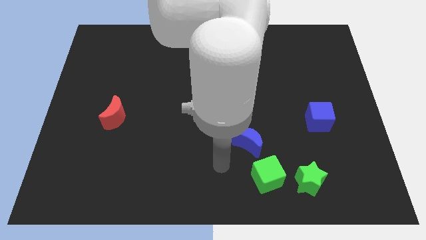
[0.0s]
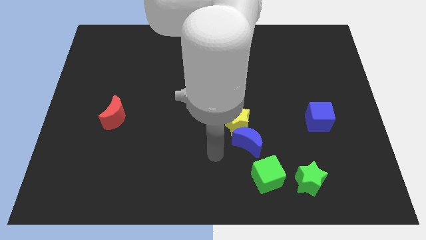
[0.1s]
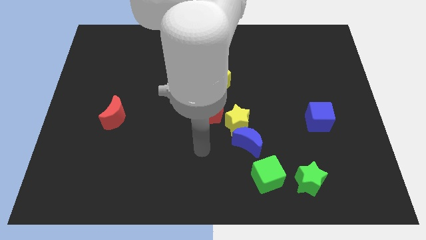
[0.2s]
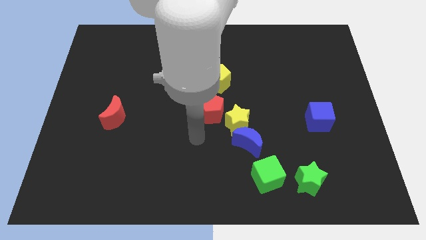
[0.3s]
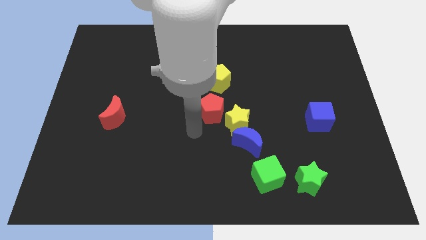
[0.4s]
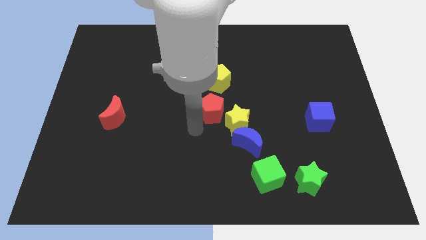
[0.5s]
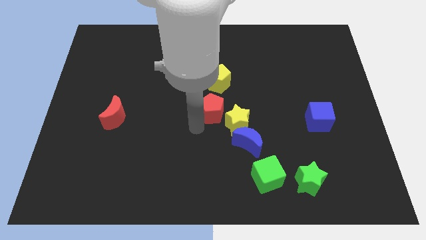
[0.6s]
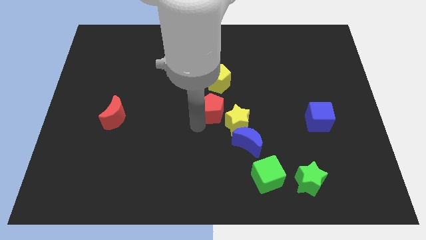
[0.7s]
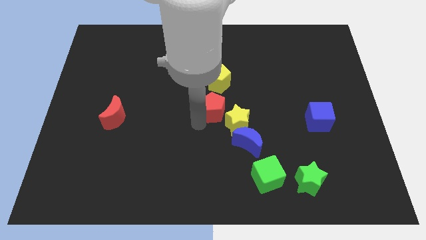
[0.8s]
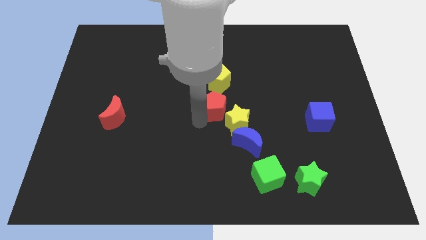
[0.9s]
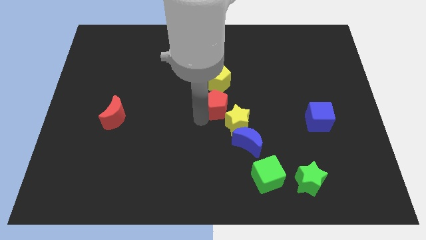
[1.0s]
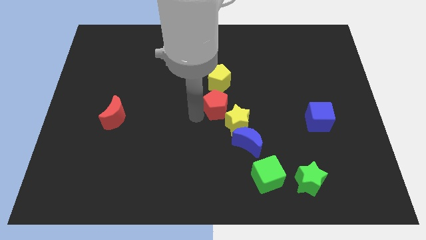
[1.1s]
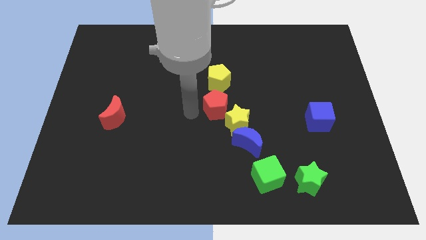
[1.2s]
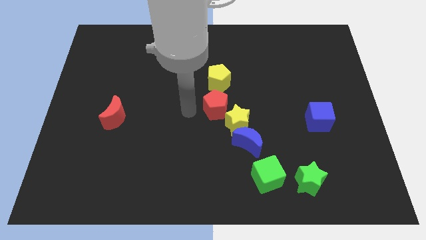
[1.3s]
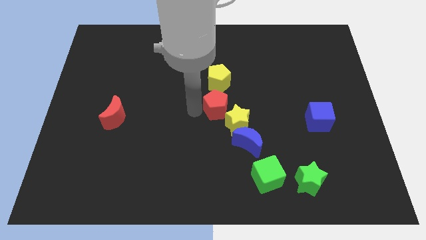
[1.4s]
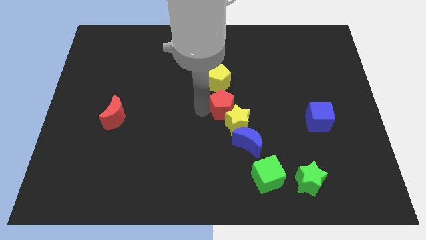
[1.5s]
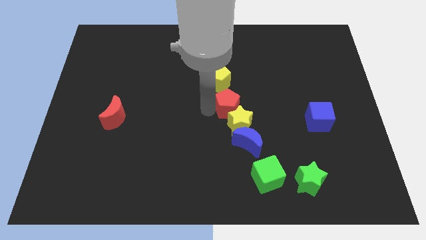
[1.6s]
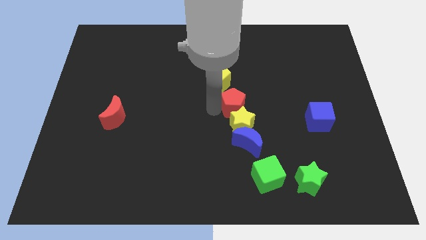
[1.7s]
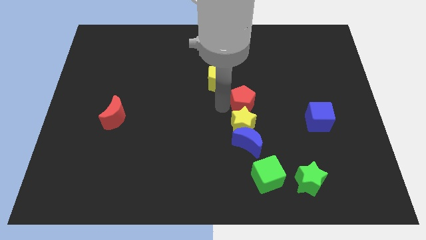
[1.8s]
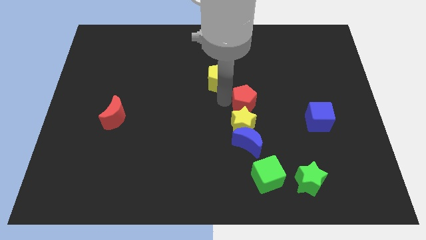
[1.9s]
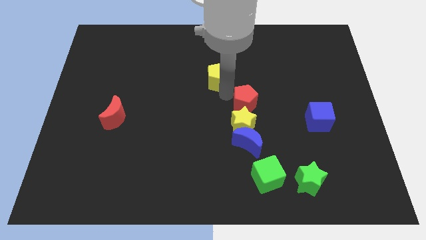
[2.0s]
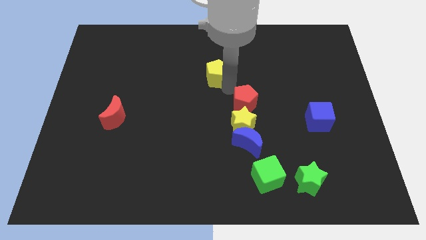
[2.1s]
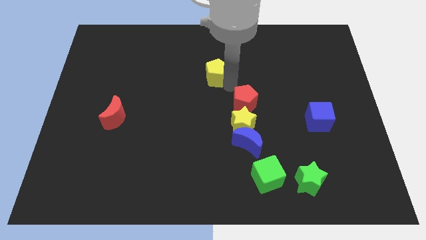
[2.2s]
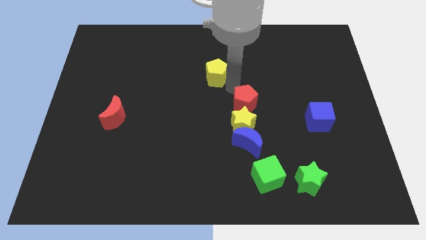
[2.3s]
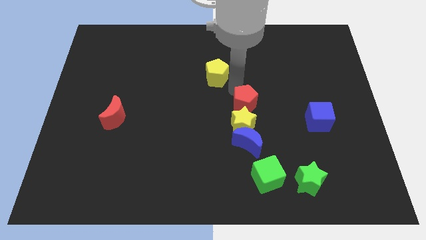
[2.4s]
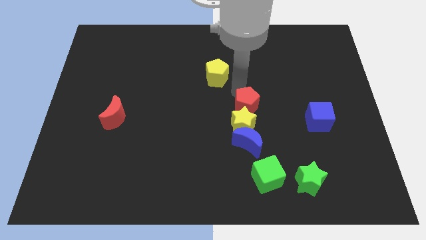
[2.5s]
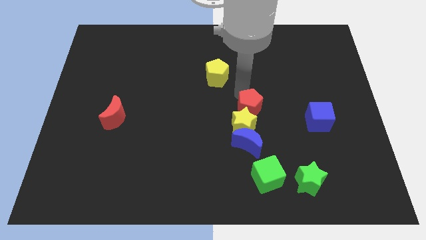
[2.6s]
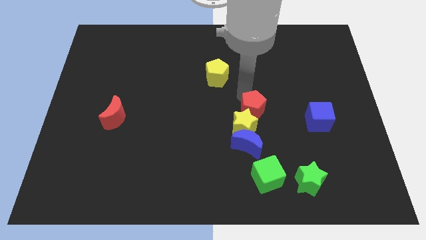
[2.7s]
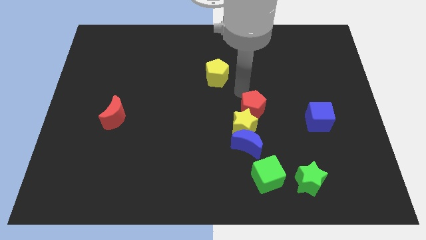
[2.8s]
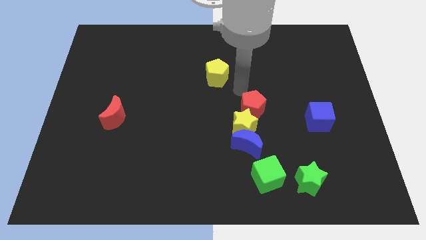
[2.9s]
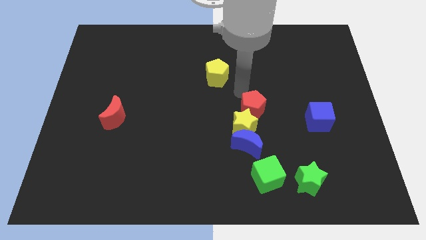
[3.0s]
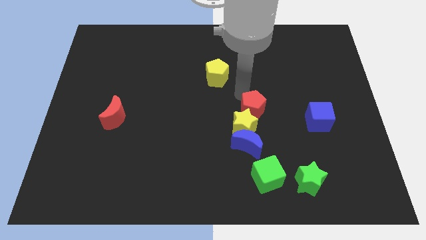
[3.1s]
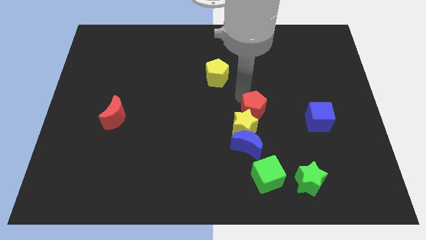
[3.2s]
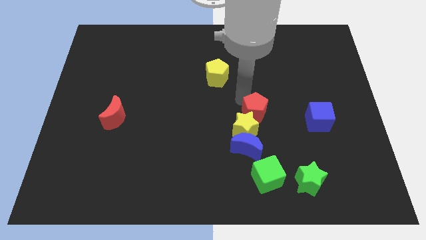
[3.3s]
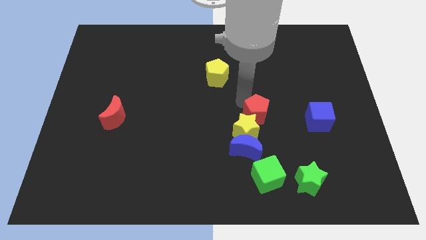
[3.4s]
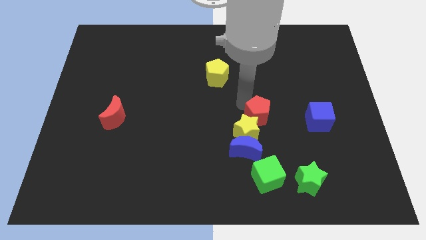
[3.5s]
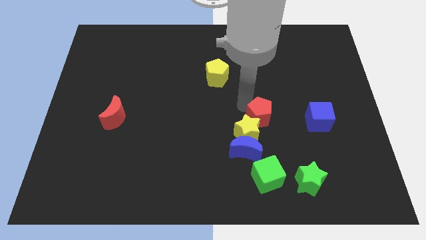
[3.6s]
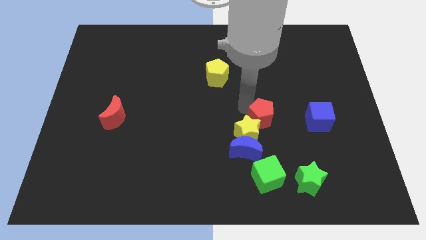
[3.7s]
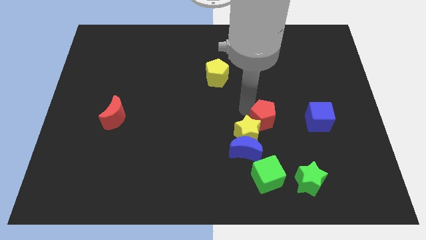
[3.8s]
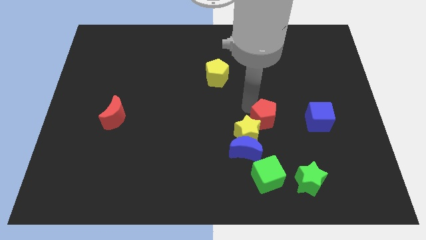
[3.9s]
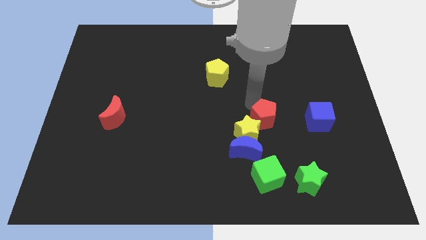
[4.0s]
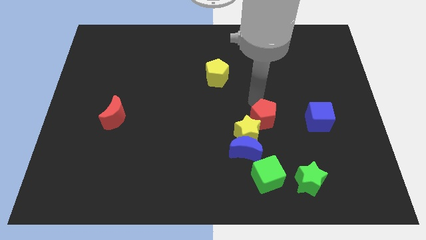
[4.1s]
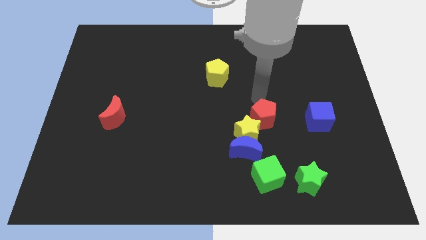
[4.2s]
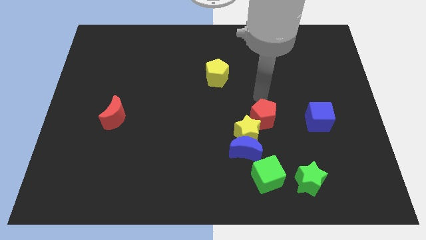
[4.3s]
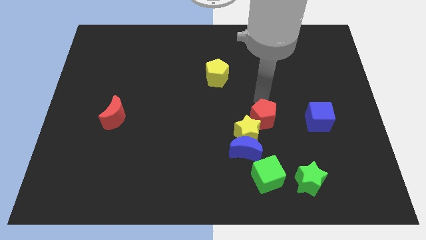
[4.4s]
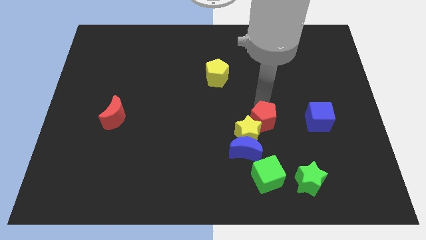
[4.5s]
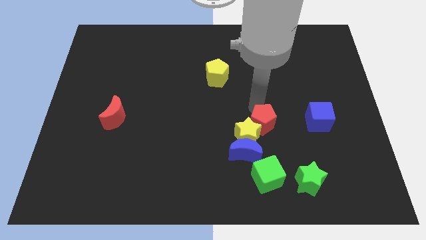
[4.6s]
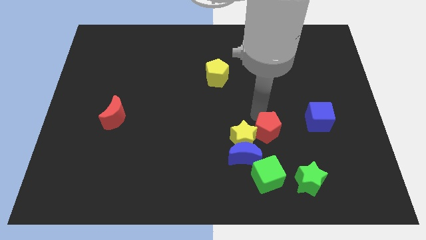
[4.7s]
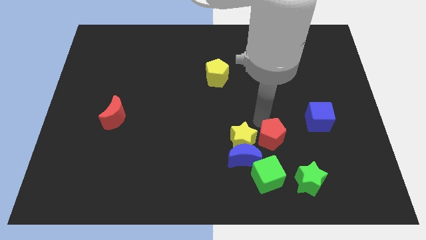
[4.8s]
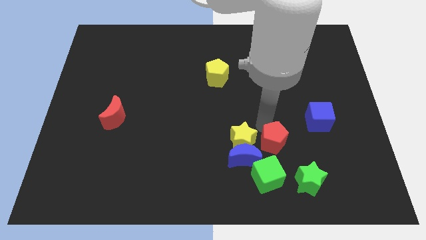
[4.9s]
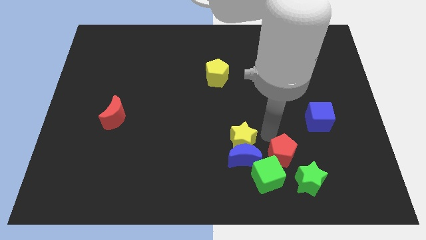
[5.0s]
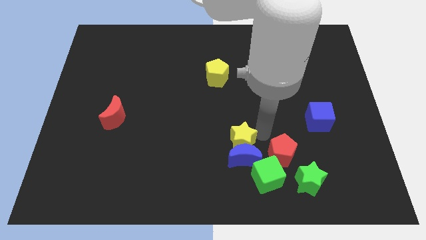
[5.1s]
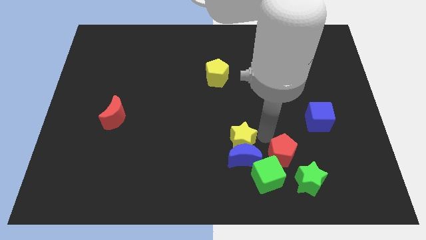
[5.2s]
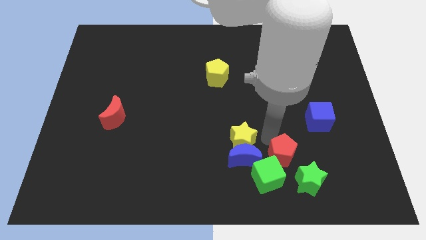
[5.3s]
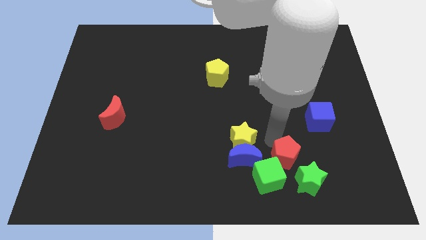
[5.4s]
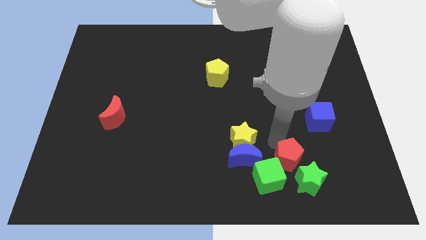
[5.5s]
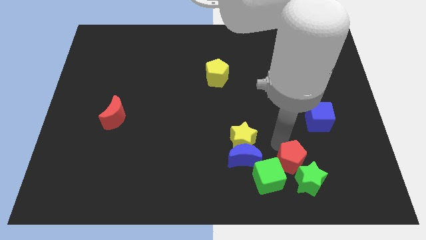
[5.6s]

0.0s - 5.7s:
put the red pentagon close to the green star
